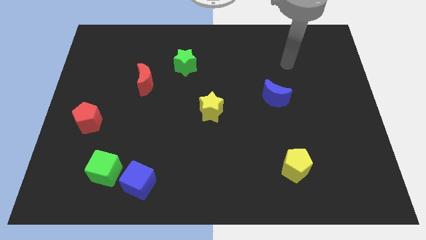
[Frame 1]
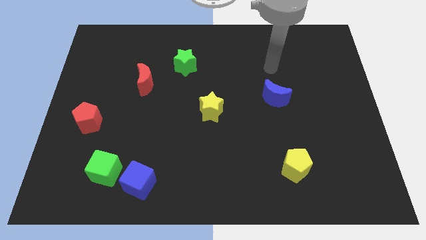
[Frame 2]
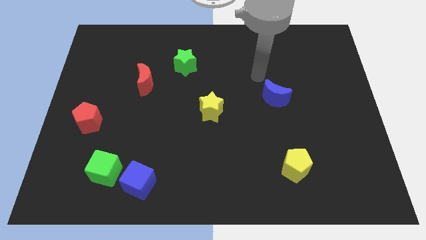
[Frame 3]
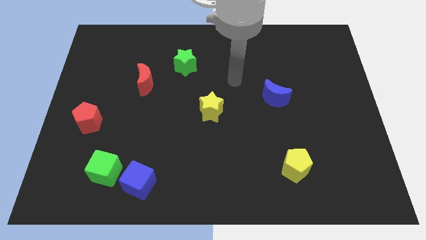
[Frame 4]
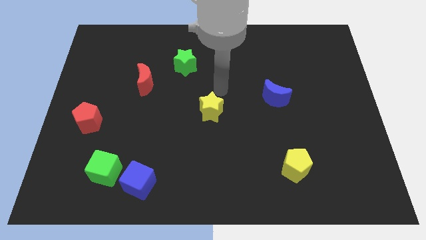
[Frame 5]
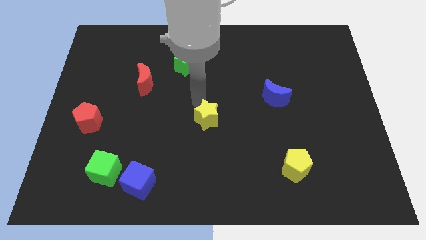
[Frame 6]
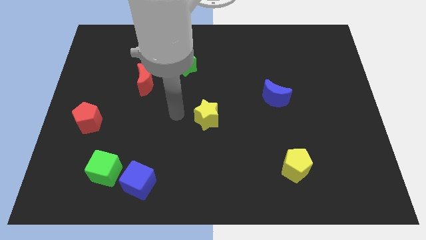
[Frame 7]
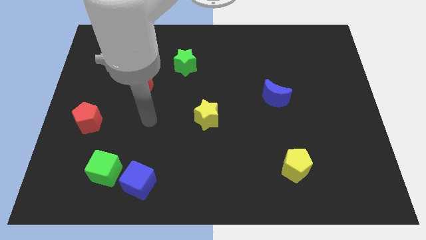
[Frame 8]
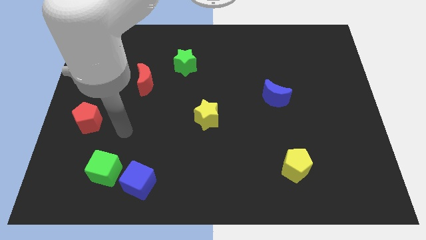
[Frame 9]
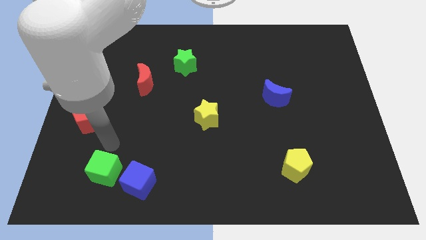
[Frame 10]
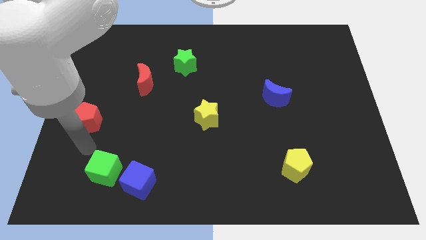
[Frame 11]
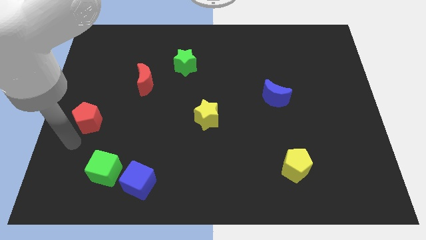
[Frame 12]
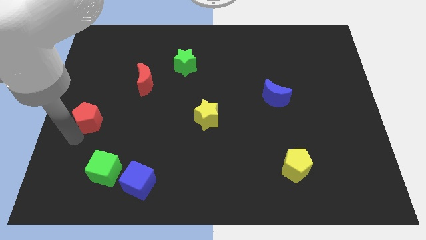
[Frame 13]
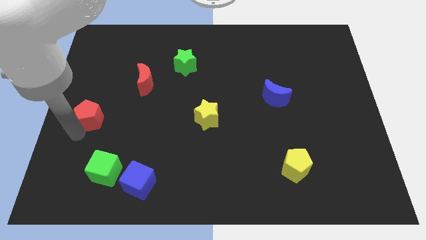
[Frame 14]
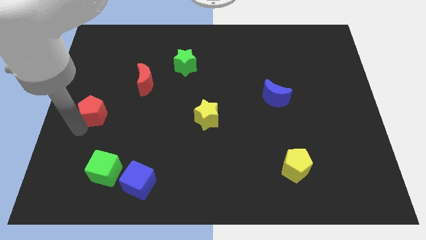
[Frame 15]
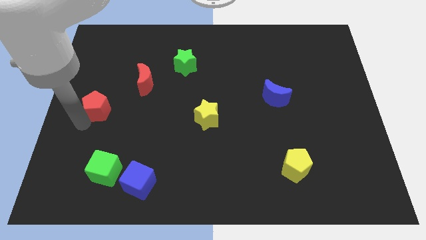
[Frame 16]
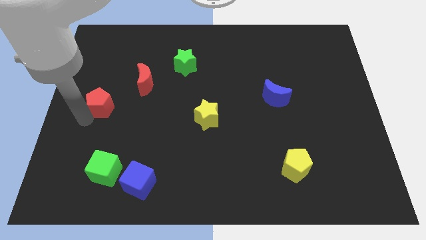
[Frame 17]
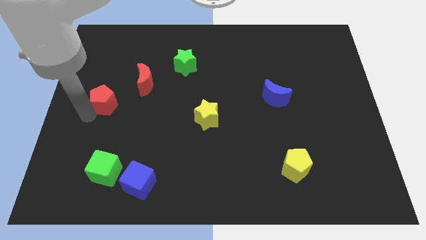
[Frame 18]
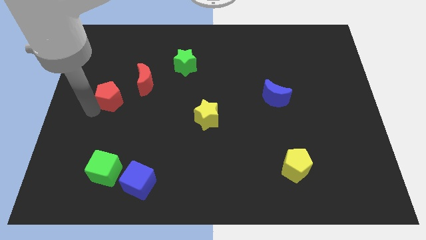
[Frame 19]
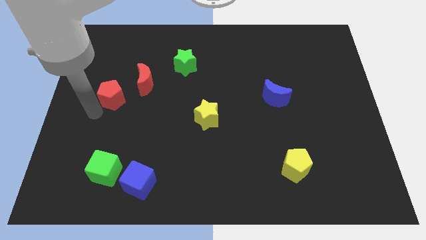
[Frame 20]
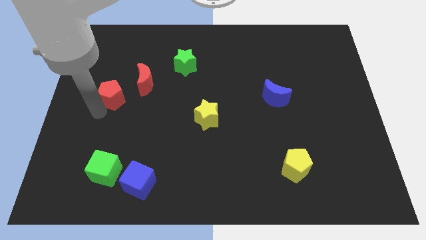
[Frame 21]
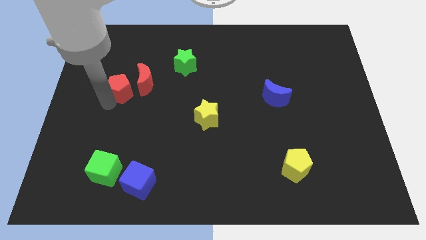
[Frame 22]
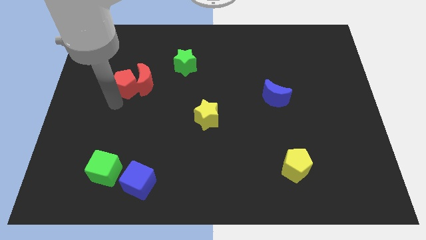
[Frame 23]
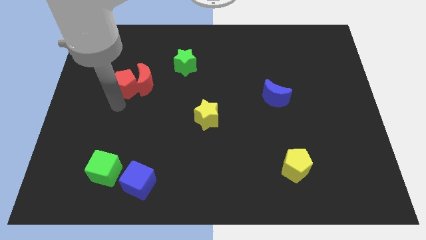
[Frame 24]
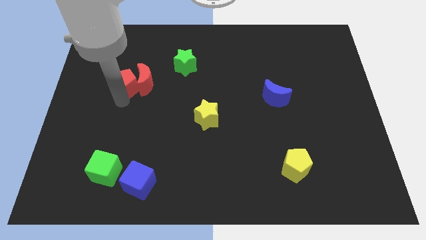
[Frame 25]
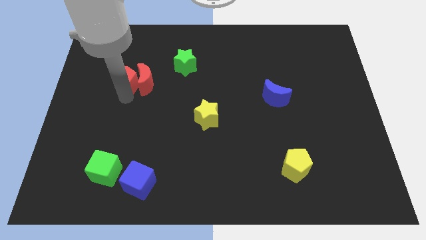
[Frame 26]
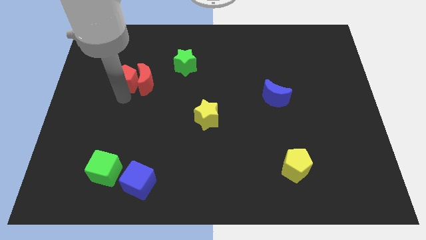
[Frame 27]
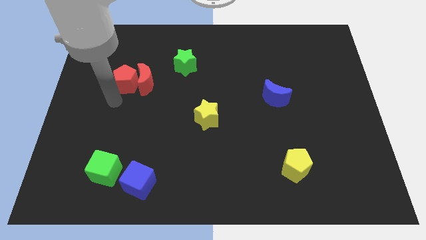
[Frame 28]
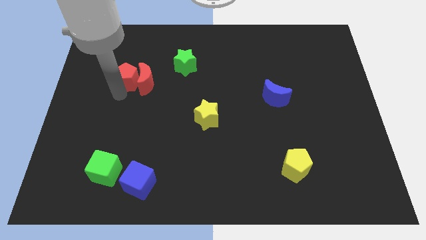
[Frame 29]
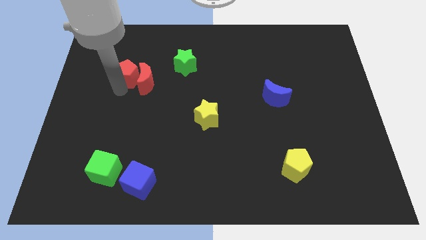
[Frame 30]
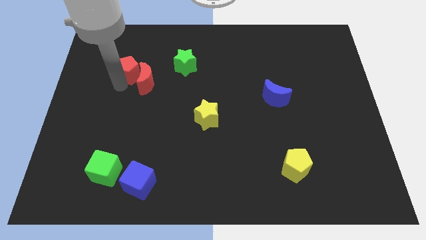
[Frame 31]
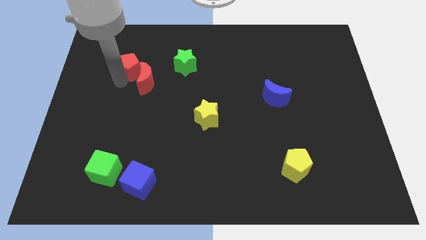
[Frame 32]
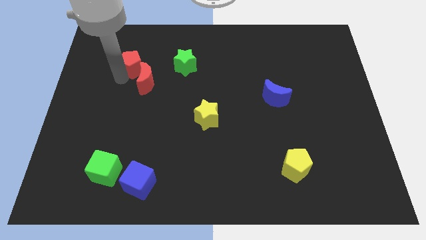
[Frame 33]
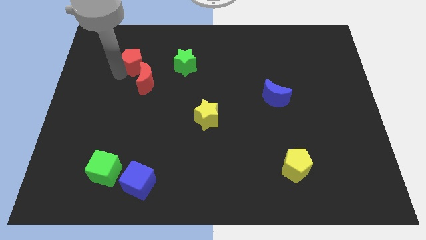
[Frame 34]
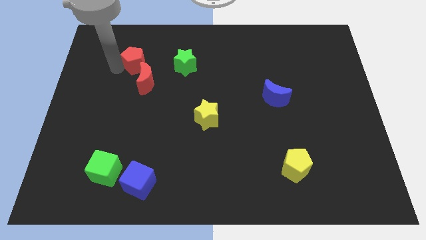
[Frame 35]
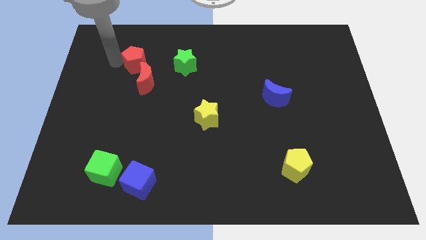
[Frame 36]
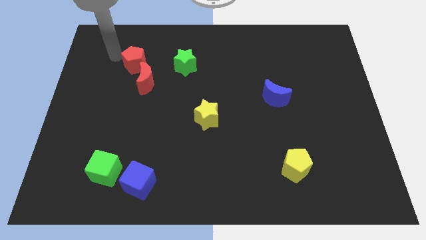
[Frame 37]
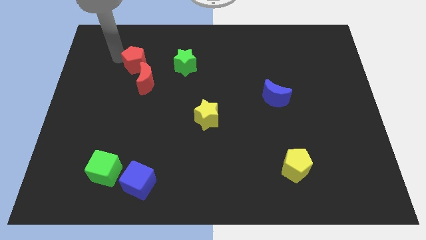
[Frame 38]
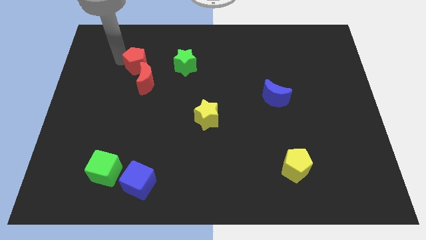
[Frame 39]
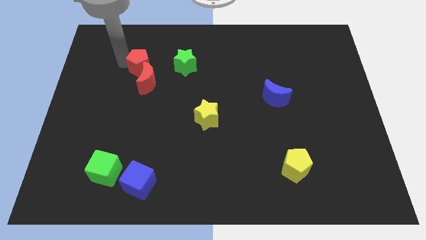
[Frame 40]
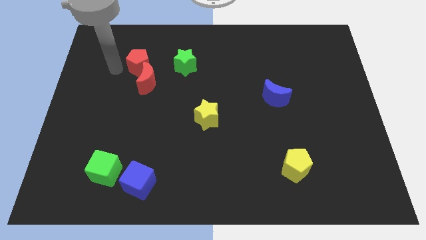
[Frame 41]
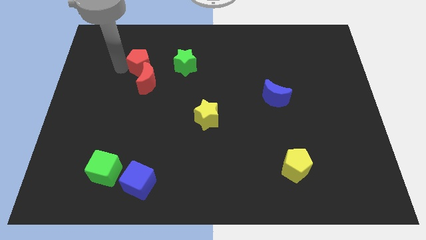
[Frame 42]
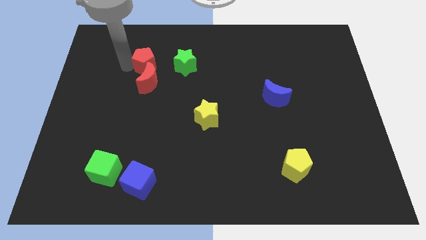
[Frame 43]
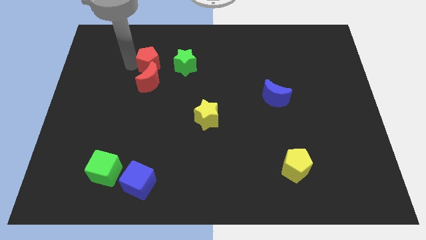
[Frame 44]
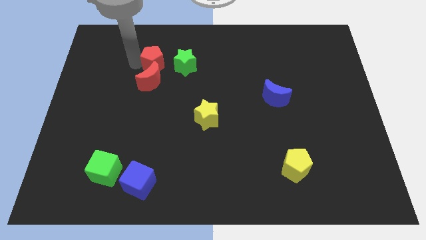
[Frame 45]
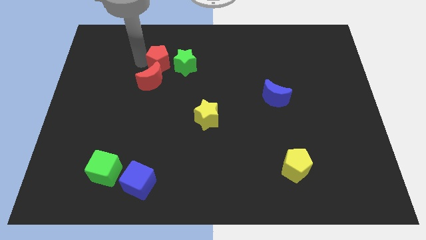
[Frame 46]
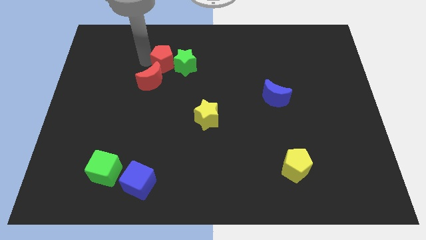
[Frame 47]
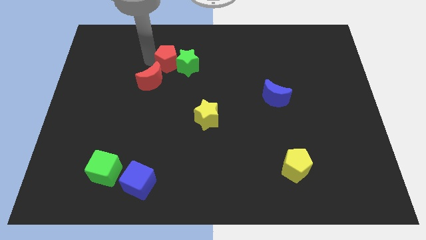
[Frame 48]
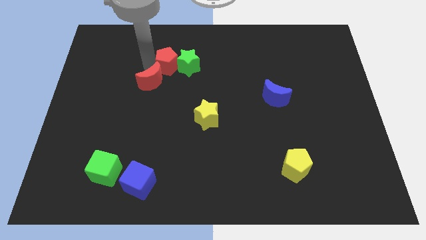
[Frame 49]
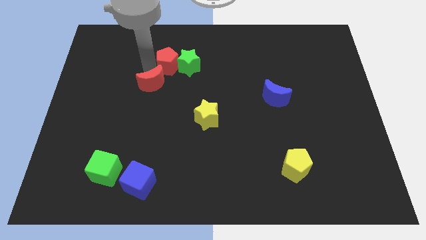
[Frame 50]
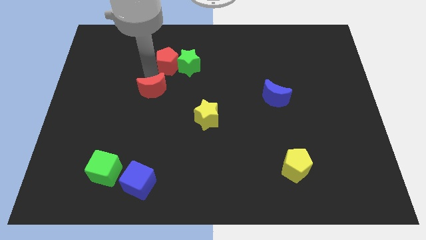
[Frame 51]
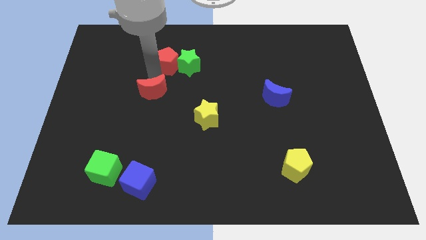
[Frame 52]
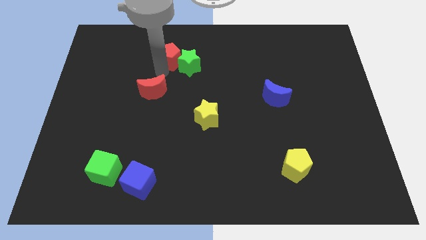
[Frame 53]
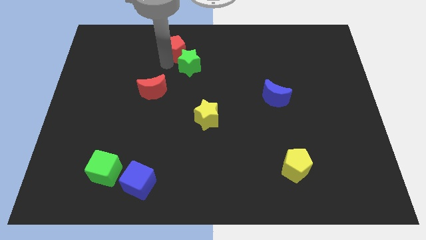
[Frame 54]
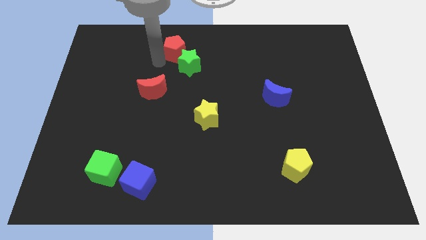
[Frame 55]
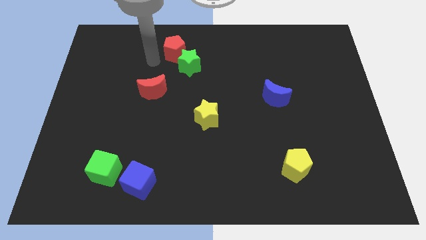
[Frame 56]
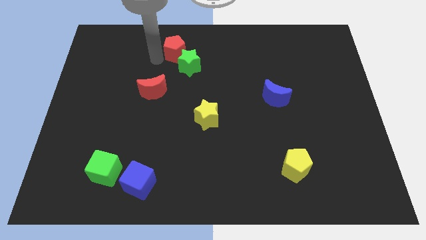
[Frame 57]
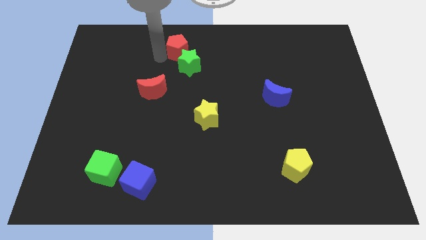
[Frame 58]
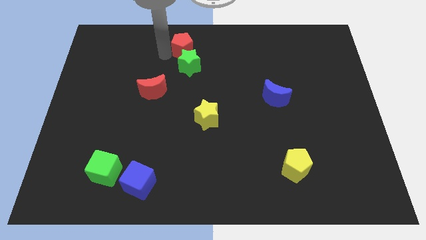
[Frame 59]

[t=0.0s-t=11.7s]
push the red pentagon to the top

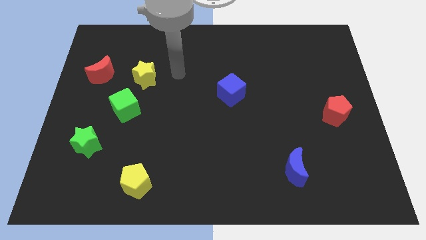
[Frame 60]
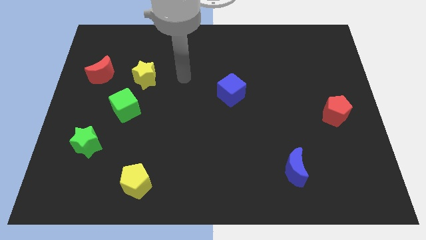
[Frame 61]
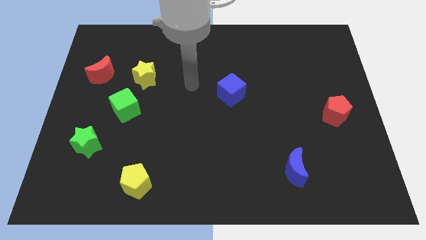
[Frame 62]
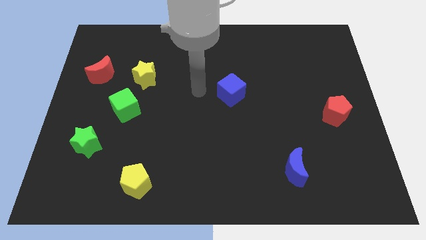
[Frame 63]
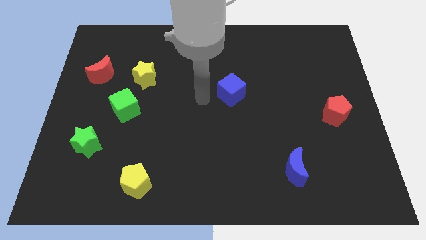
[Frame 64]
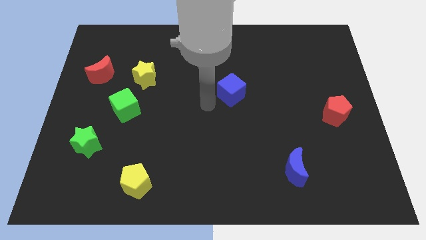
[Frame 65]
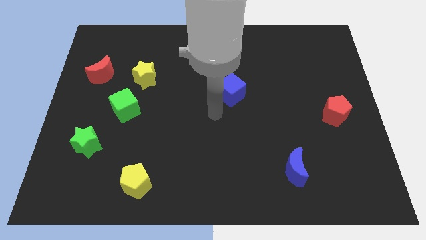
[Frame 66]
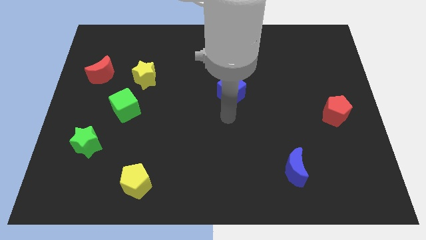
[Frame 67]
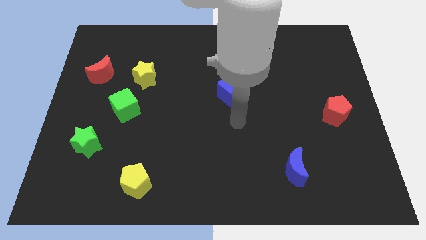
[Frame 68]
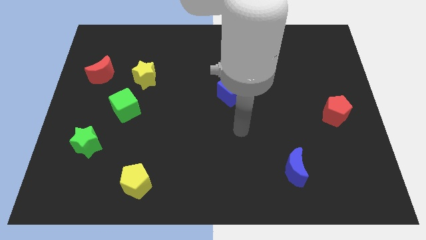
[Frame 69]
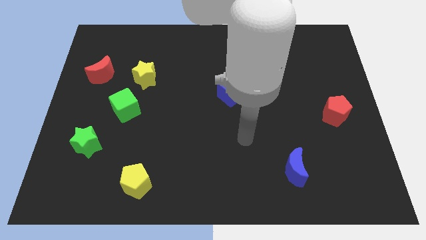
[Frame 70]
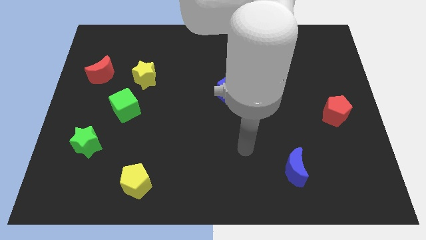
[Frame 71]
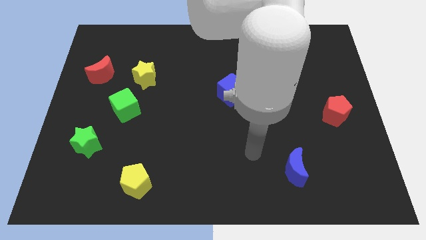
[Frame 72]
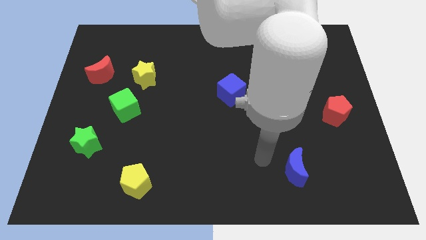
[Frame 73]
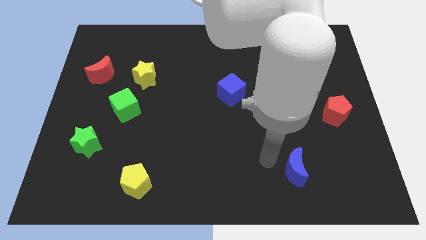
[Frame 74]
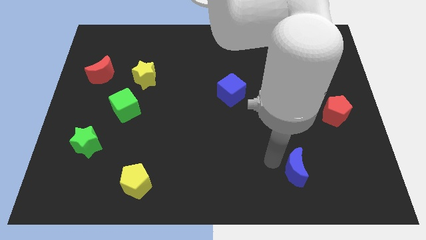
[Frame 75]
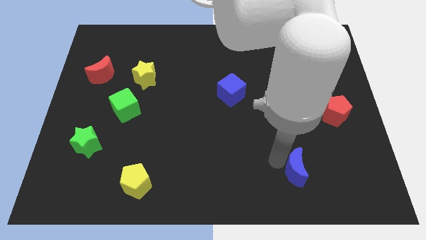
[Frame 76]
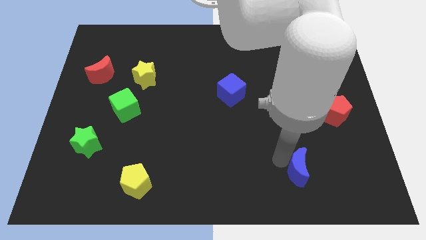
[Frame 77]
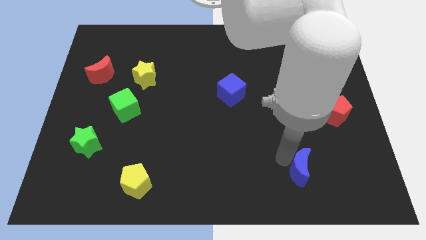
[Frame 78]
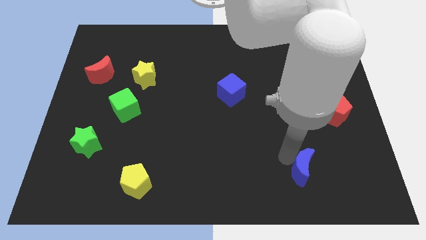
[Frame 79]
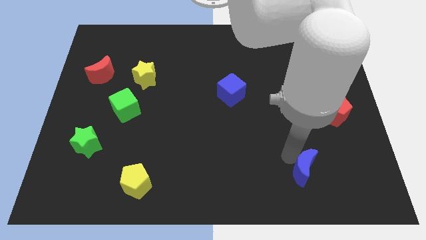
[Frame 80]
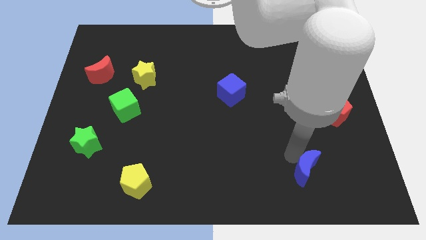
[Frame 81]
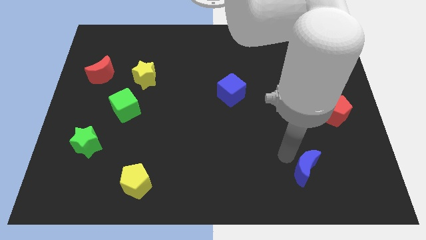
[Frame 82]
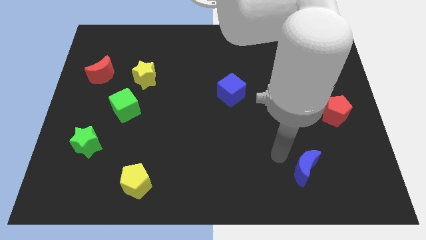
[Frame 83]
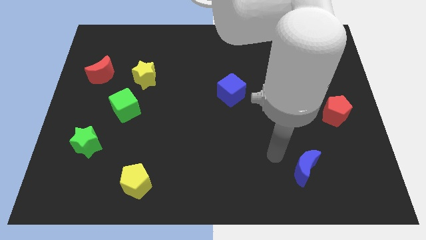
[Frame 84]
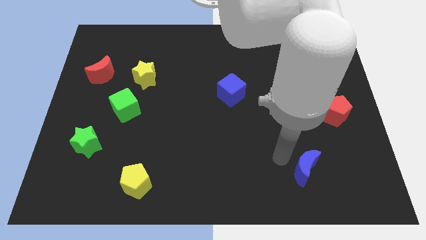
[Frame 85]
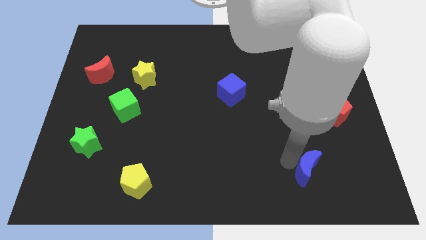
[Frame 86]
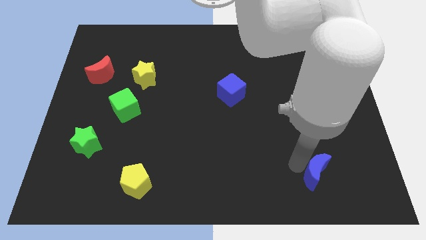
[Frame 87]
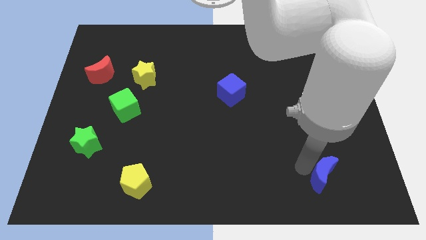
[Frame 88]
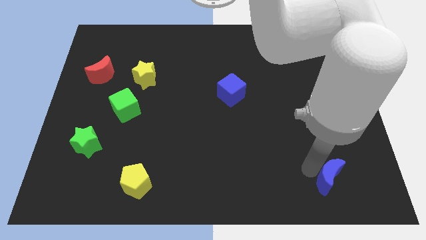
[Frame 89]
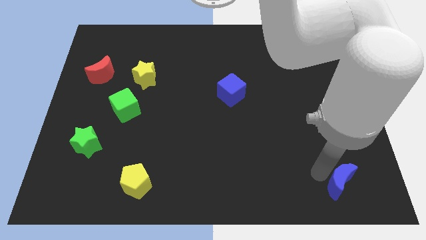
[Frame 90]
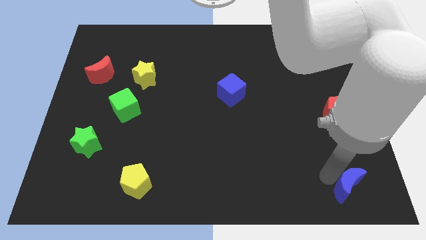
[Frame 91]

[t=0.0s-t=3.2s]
put the blue moon to the bottom right corner
